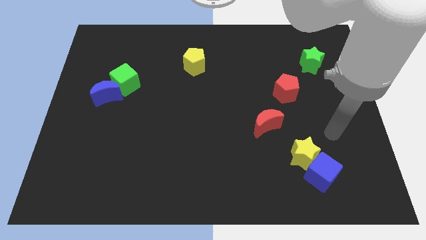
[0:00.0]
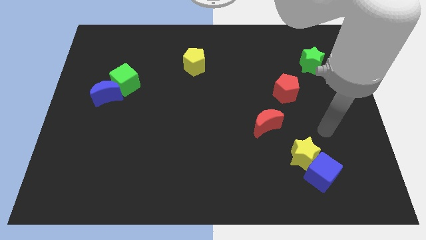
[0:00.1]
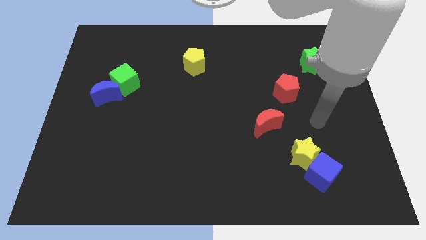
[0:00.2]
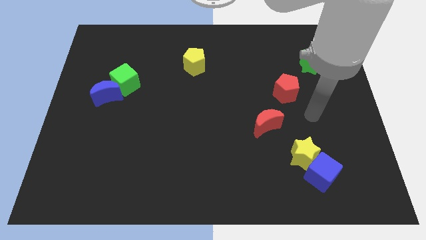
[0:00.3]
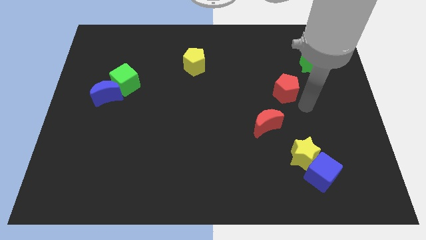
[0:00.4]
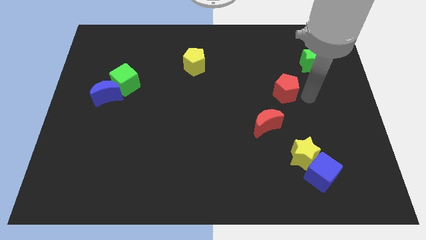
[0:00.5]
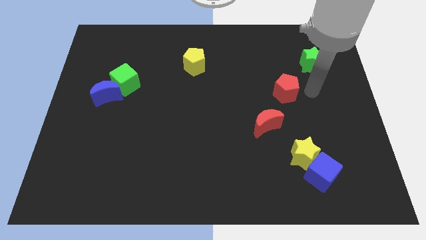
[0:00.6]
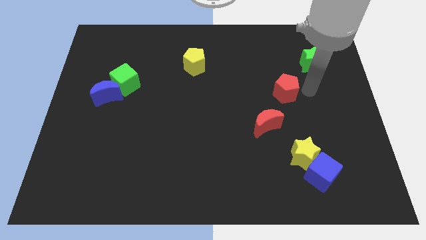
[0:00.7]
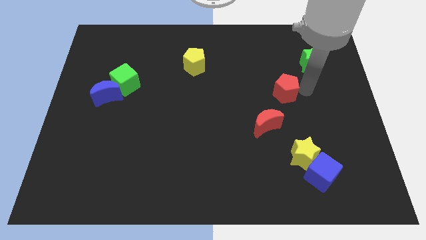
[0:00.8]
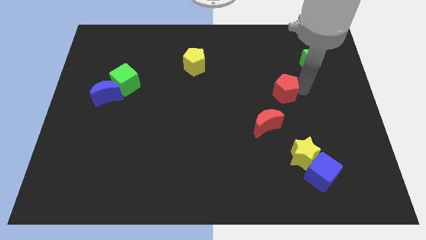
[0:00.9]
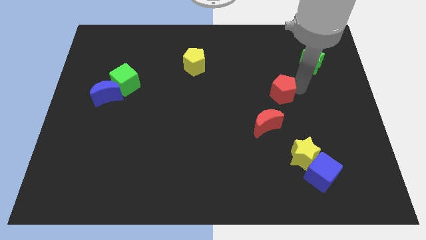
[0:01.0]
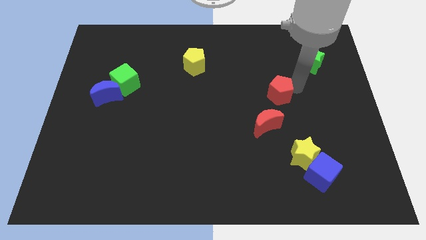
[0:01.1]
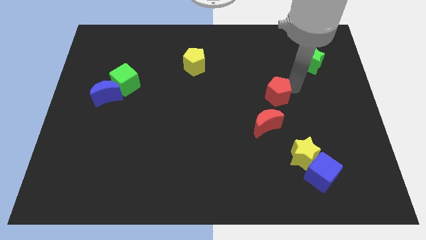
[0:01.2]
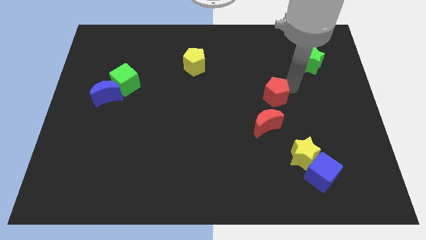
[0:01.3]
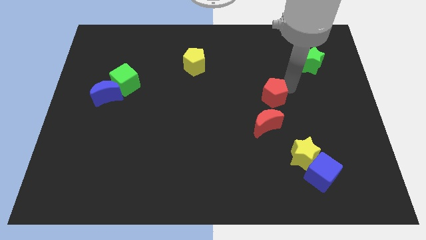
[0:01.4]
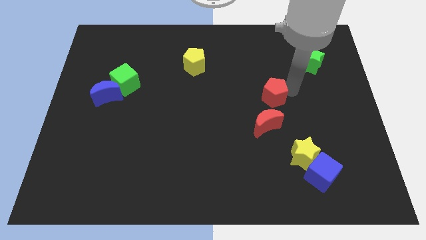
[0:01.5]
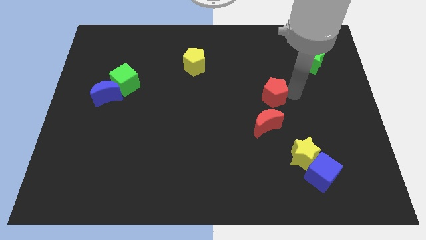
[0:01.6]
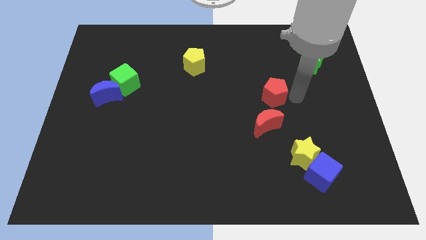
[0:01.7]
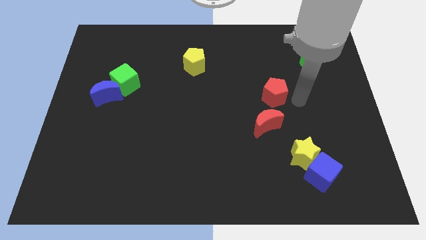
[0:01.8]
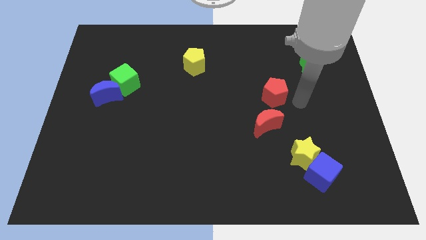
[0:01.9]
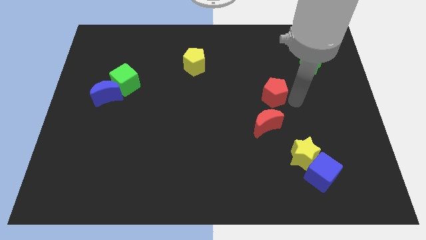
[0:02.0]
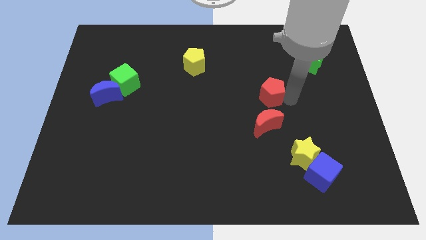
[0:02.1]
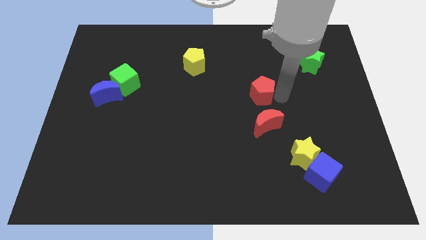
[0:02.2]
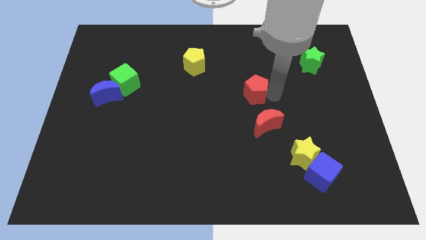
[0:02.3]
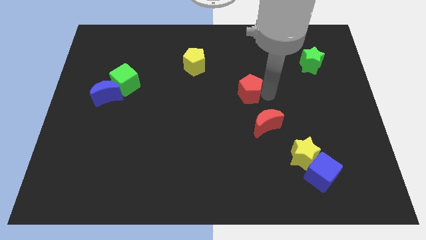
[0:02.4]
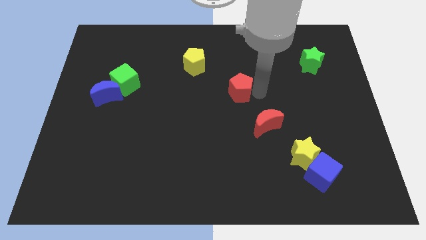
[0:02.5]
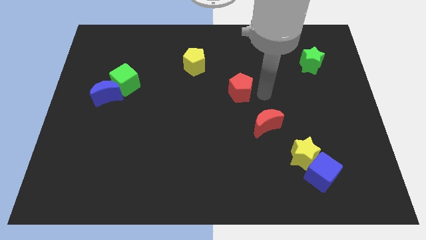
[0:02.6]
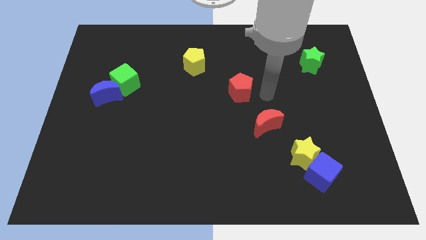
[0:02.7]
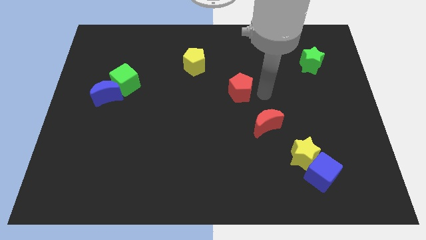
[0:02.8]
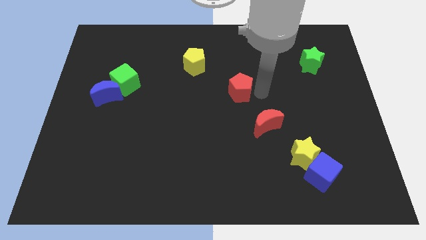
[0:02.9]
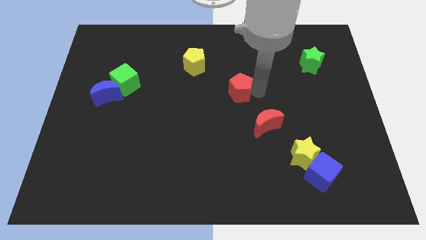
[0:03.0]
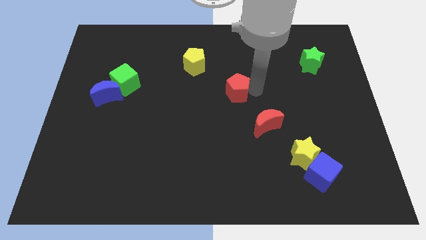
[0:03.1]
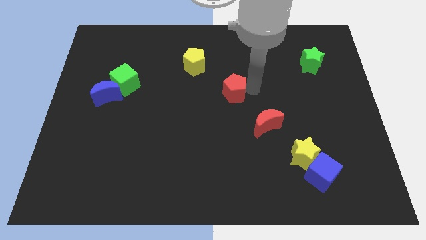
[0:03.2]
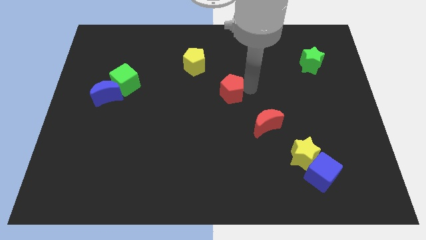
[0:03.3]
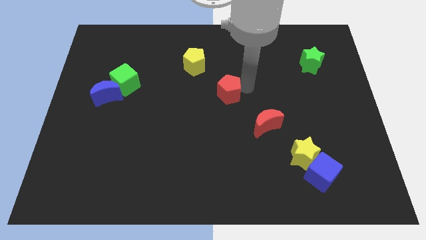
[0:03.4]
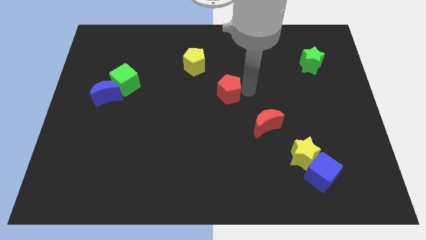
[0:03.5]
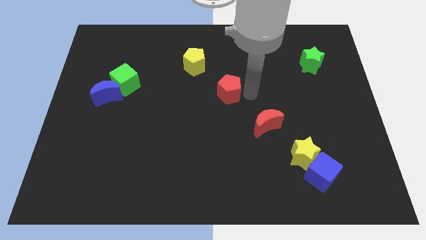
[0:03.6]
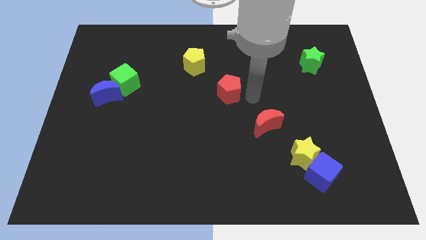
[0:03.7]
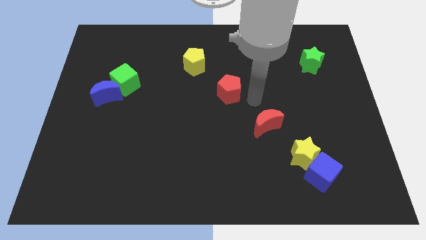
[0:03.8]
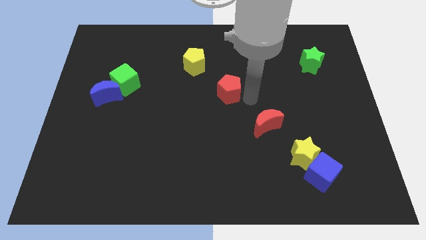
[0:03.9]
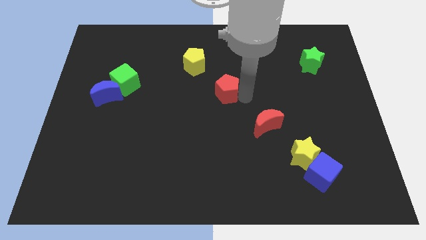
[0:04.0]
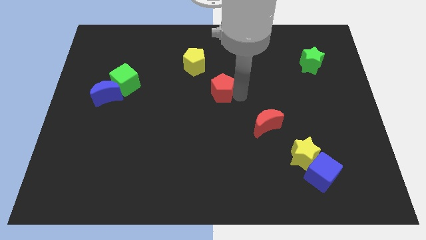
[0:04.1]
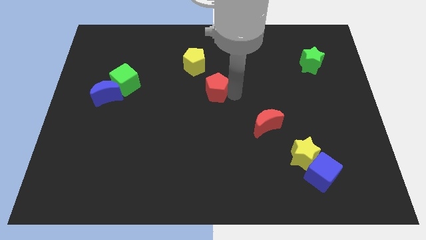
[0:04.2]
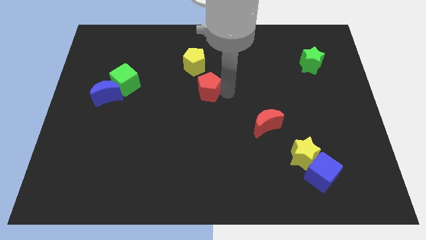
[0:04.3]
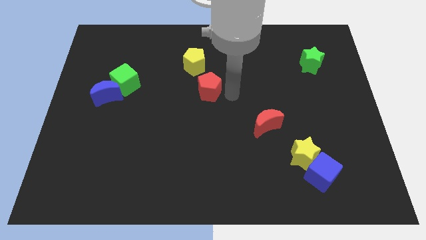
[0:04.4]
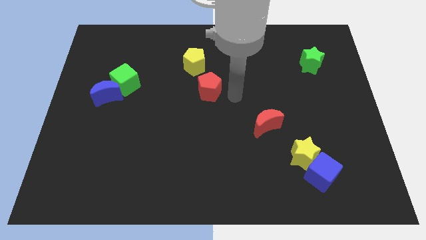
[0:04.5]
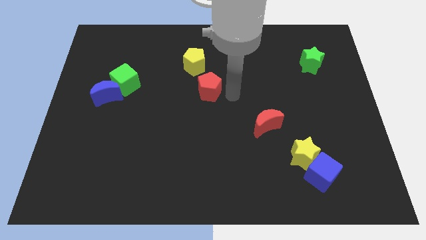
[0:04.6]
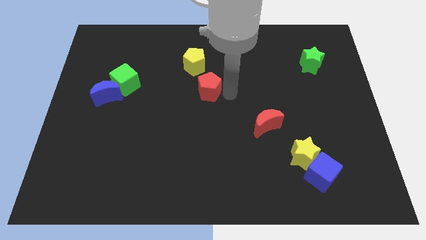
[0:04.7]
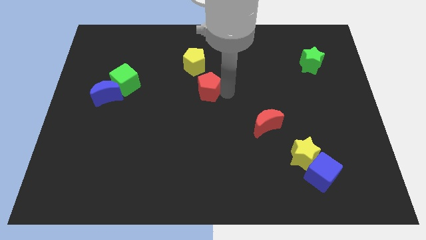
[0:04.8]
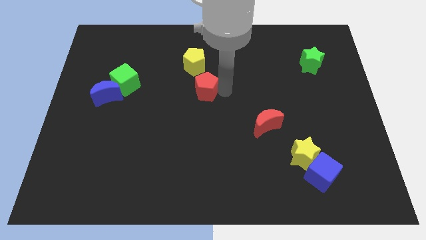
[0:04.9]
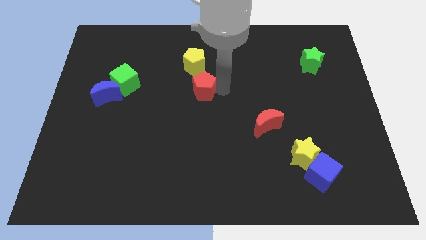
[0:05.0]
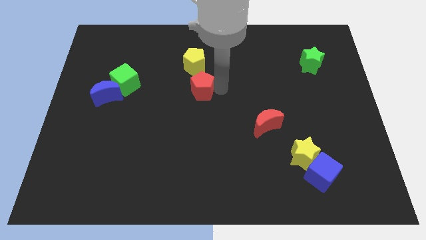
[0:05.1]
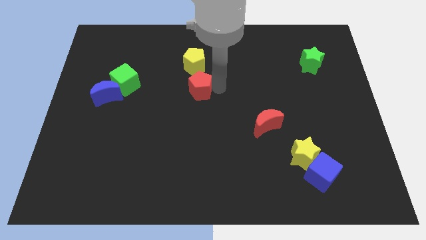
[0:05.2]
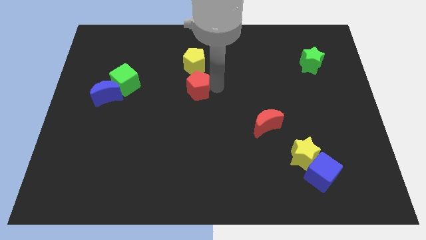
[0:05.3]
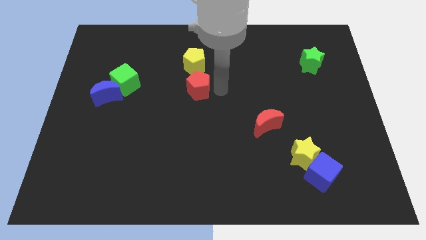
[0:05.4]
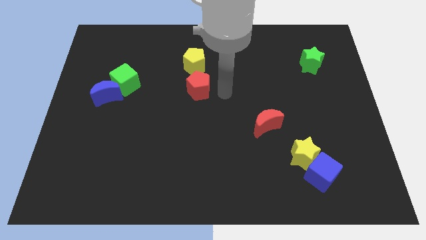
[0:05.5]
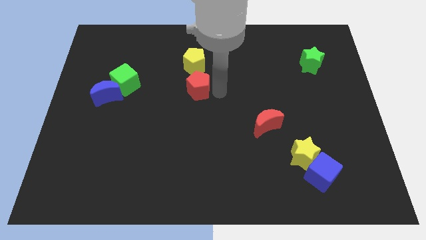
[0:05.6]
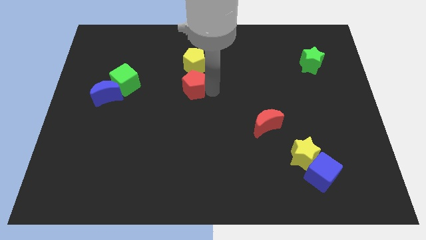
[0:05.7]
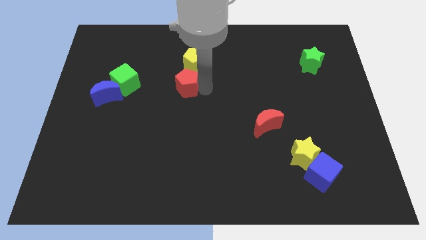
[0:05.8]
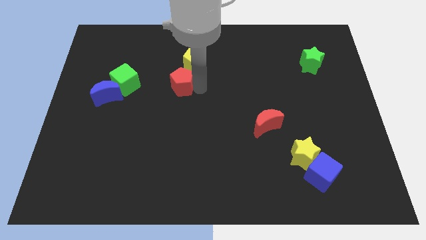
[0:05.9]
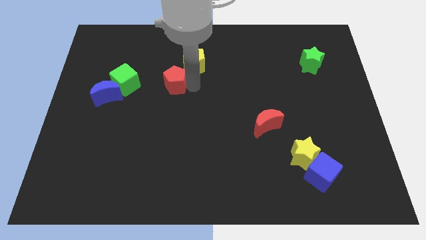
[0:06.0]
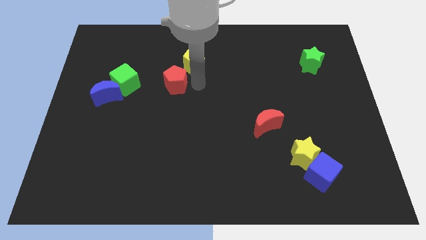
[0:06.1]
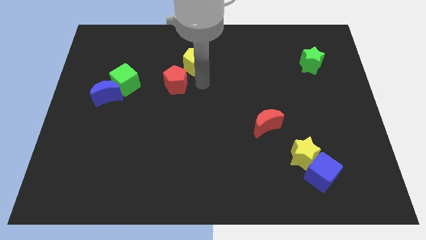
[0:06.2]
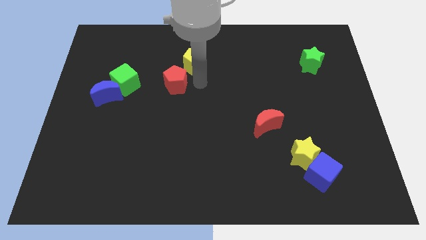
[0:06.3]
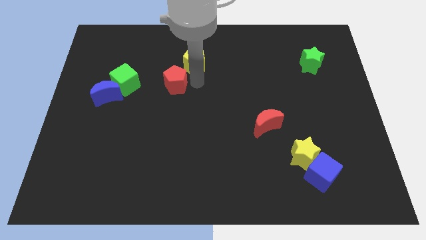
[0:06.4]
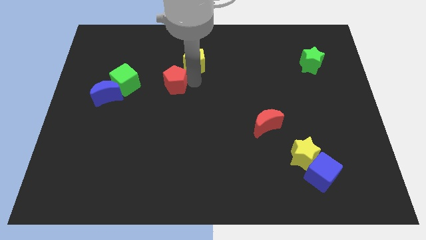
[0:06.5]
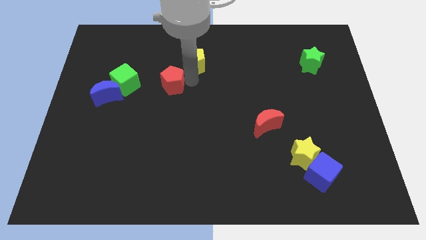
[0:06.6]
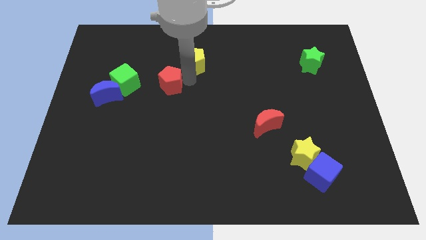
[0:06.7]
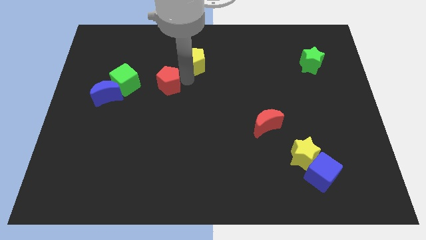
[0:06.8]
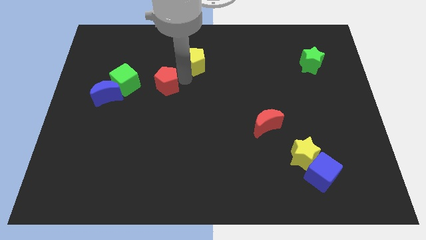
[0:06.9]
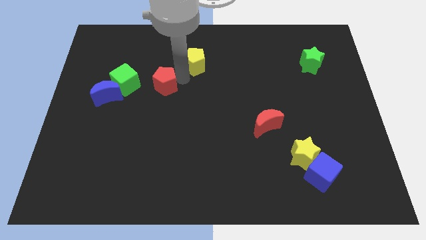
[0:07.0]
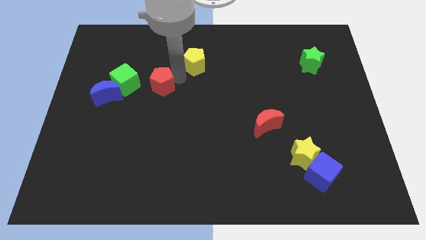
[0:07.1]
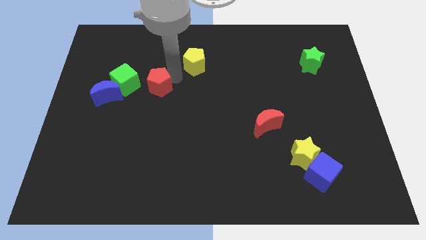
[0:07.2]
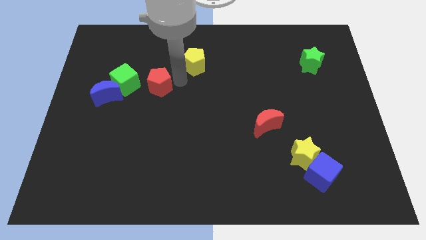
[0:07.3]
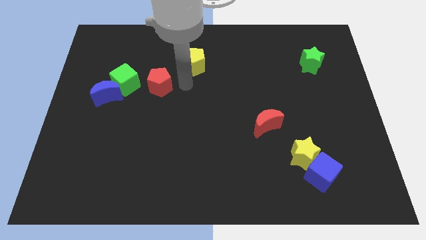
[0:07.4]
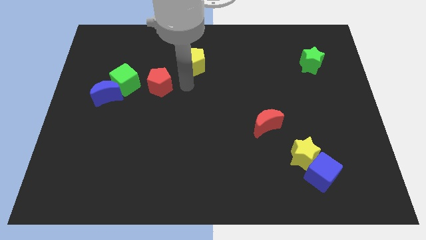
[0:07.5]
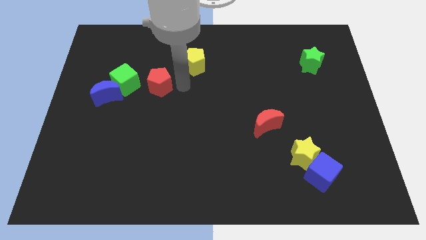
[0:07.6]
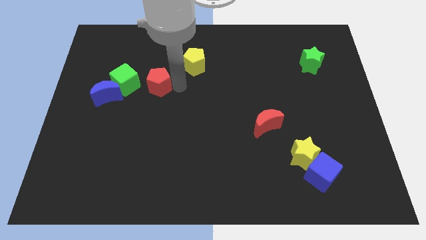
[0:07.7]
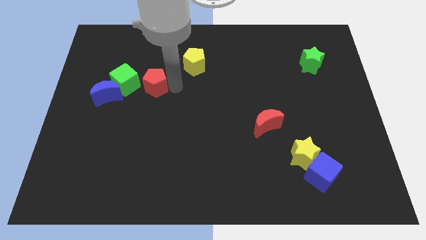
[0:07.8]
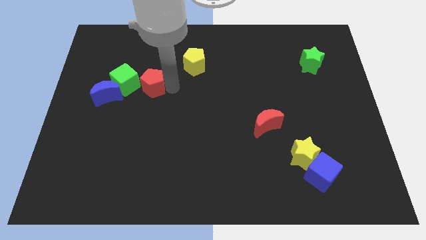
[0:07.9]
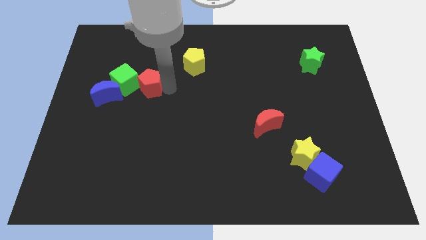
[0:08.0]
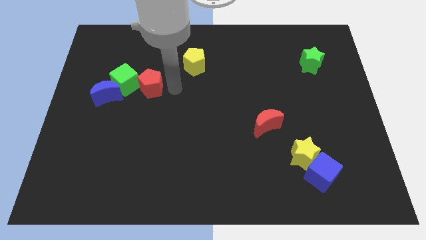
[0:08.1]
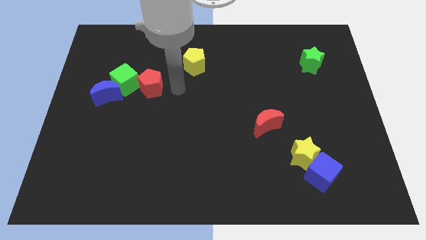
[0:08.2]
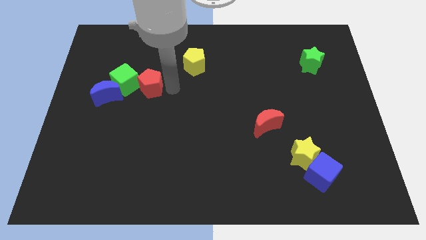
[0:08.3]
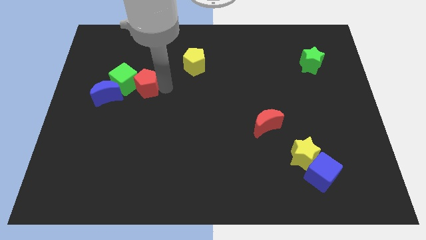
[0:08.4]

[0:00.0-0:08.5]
move the red pentagon towards the green cube
